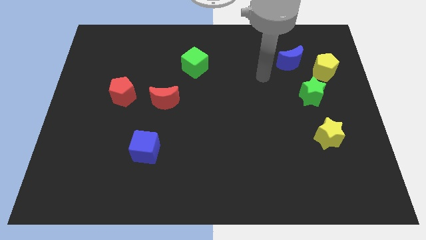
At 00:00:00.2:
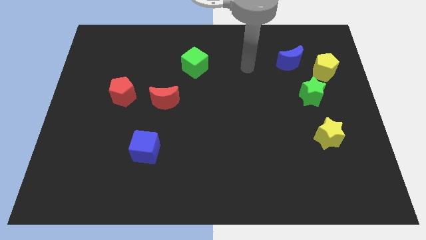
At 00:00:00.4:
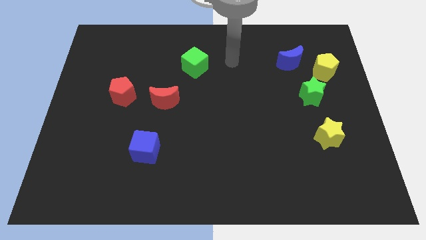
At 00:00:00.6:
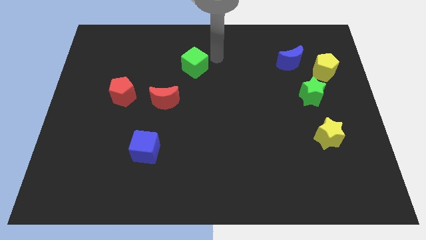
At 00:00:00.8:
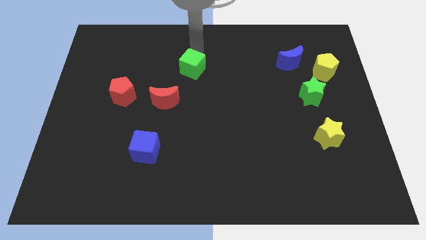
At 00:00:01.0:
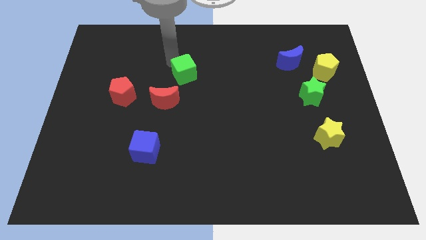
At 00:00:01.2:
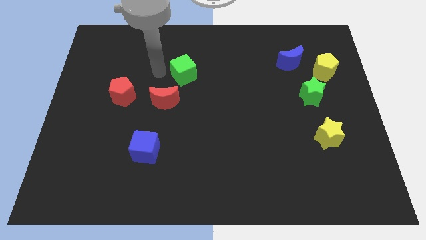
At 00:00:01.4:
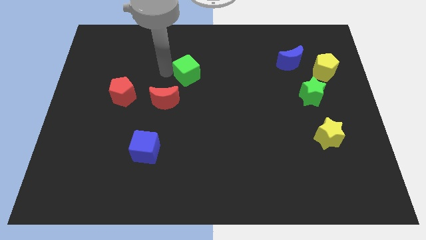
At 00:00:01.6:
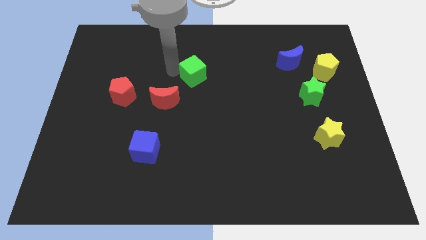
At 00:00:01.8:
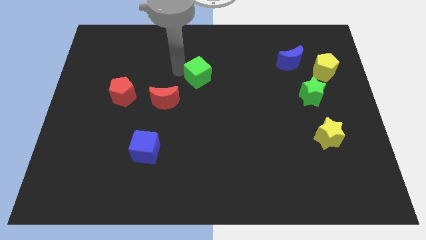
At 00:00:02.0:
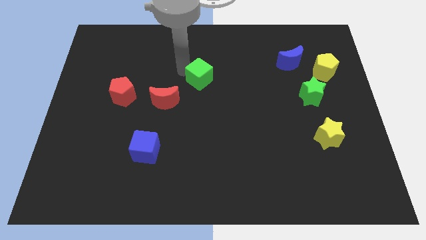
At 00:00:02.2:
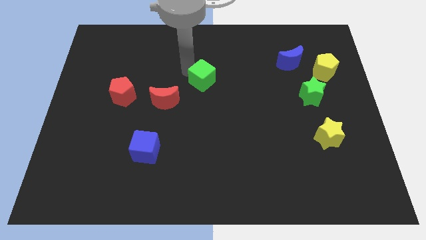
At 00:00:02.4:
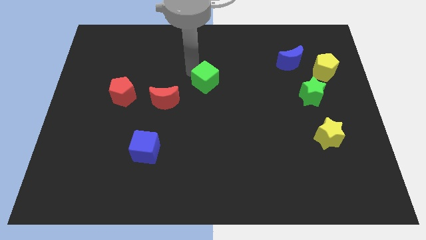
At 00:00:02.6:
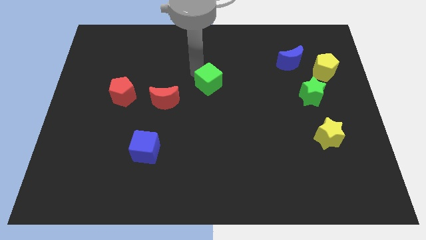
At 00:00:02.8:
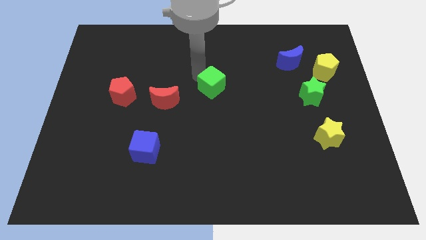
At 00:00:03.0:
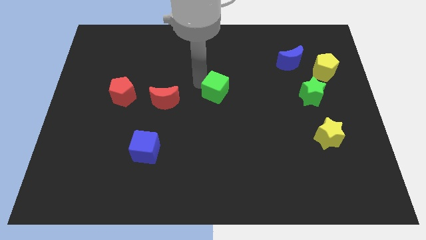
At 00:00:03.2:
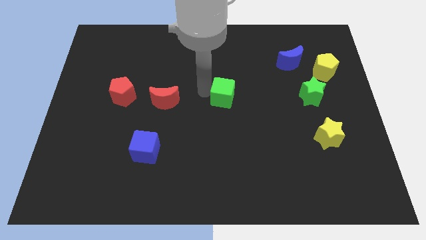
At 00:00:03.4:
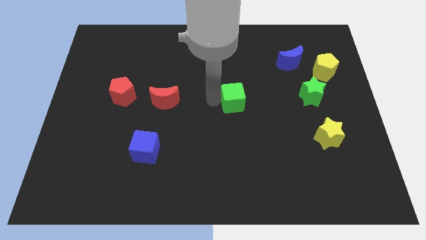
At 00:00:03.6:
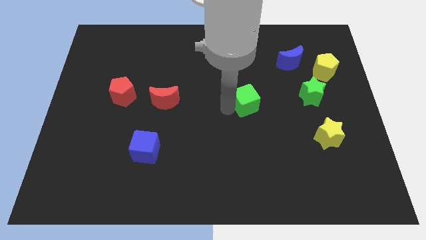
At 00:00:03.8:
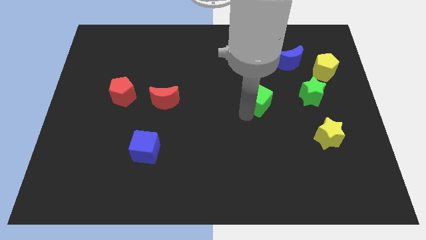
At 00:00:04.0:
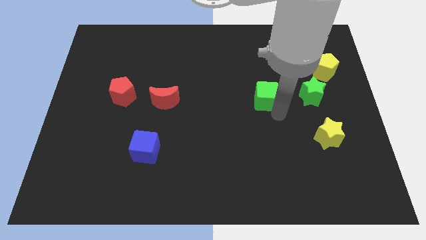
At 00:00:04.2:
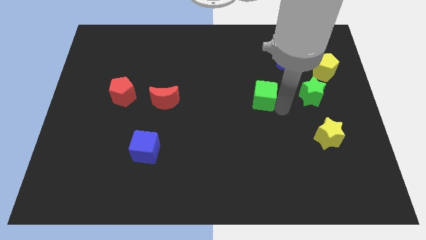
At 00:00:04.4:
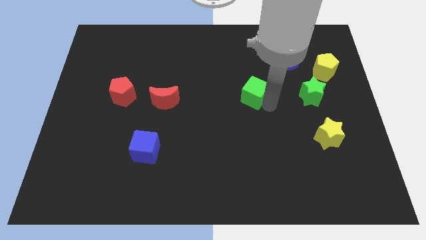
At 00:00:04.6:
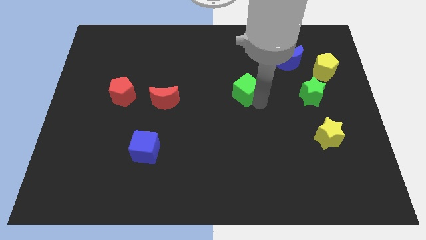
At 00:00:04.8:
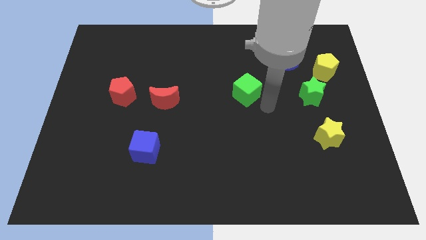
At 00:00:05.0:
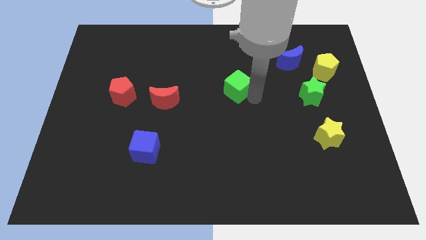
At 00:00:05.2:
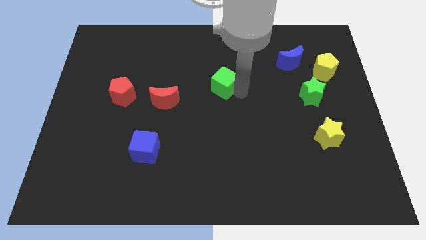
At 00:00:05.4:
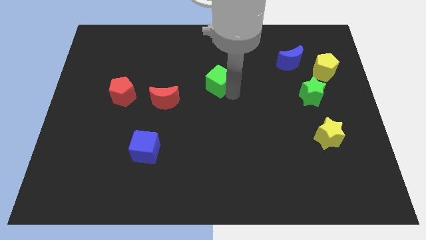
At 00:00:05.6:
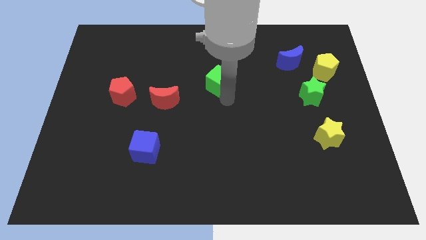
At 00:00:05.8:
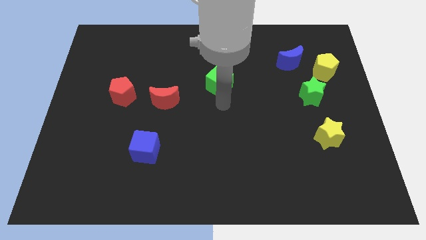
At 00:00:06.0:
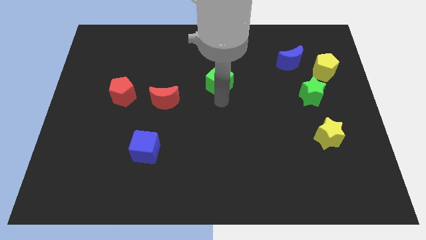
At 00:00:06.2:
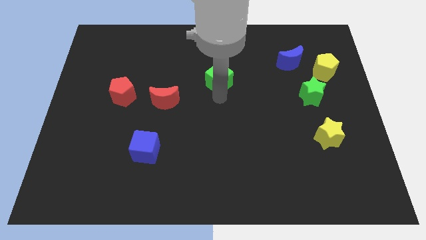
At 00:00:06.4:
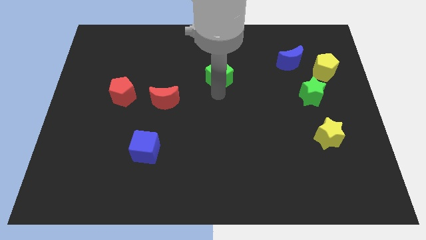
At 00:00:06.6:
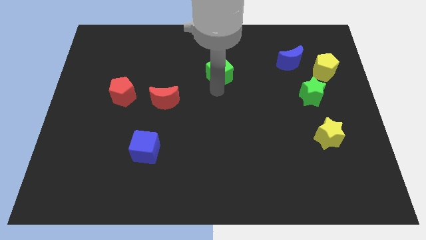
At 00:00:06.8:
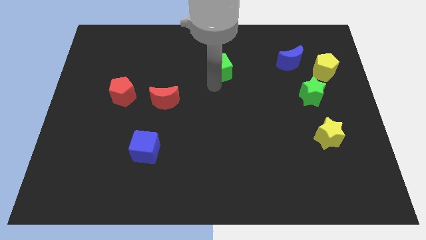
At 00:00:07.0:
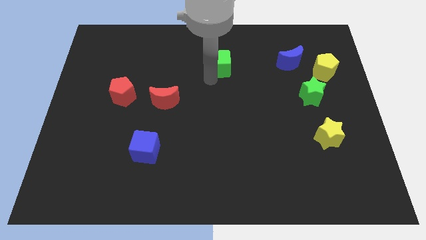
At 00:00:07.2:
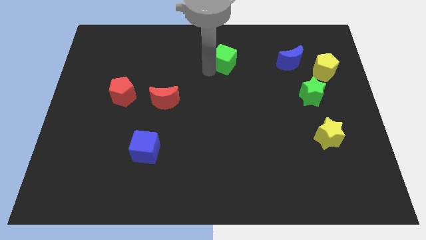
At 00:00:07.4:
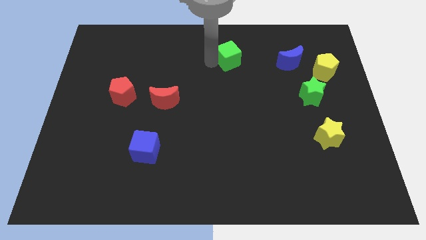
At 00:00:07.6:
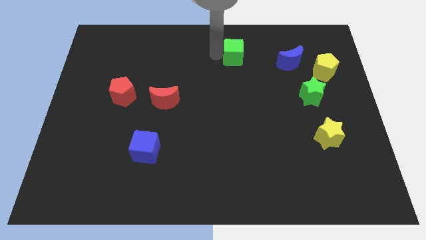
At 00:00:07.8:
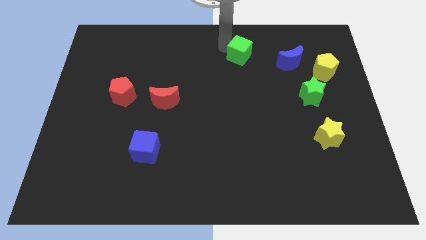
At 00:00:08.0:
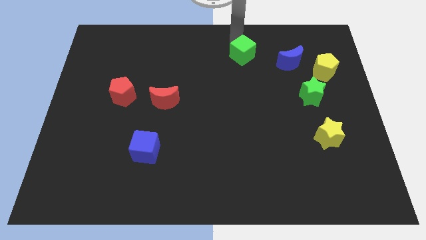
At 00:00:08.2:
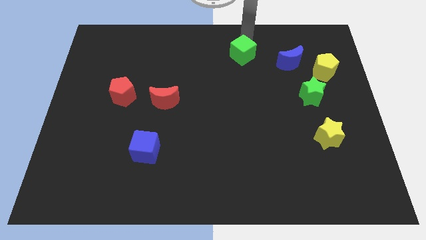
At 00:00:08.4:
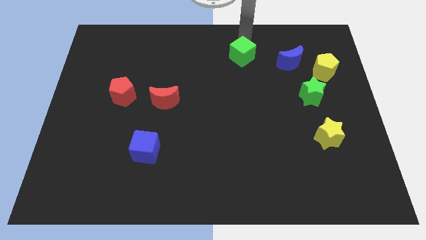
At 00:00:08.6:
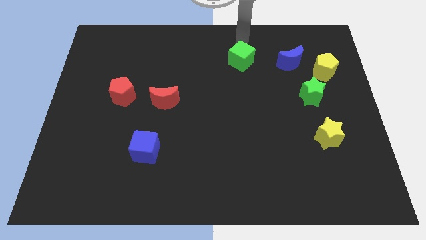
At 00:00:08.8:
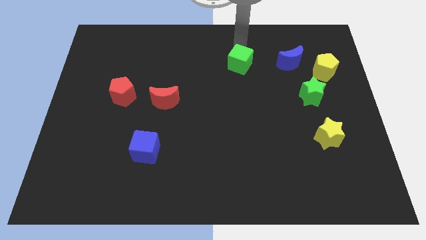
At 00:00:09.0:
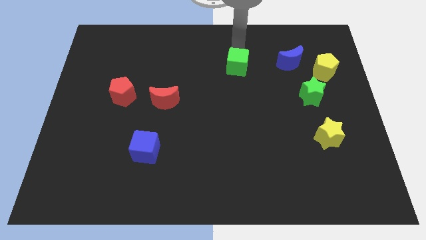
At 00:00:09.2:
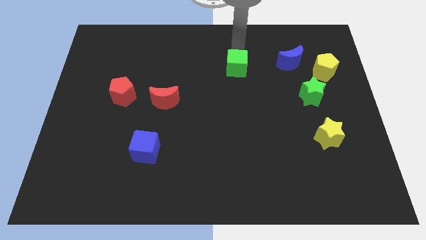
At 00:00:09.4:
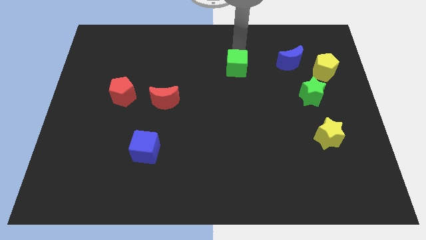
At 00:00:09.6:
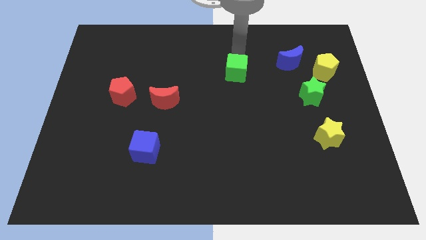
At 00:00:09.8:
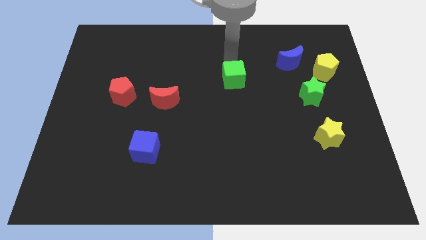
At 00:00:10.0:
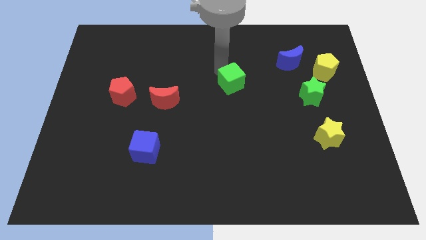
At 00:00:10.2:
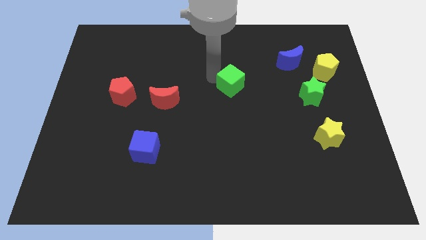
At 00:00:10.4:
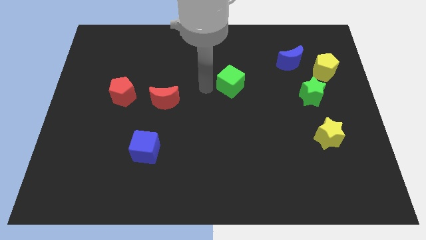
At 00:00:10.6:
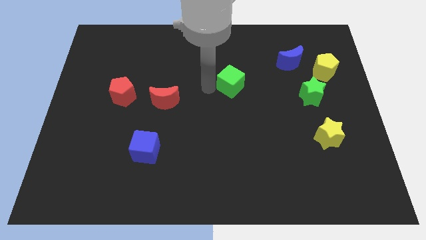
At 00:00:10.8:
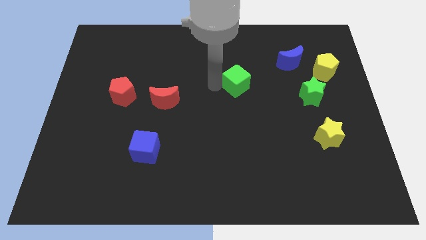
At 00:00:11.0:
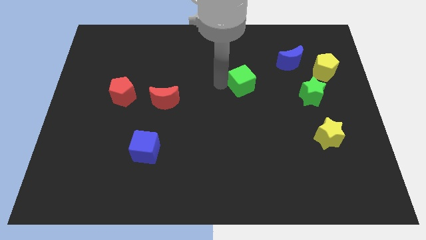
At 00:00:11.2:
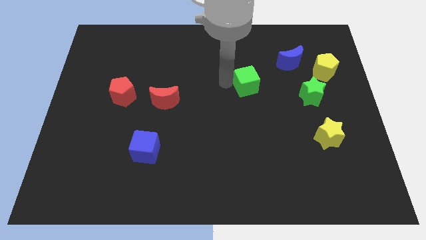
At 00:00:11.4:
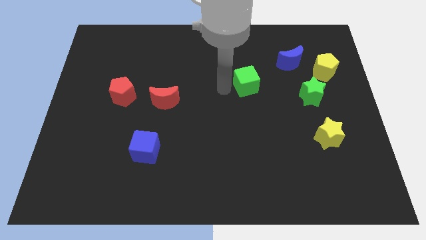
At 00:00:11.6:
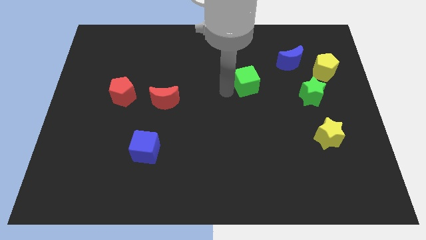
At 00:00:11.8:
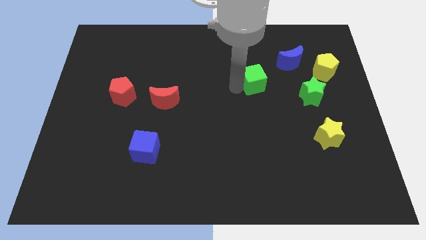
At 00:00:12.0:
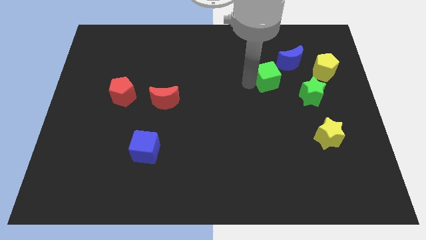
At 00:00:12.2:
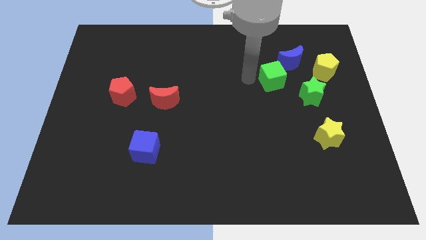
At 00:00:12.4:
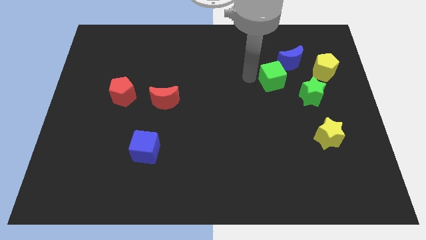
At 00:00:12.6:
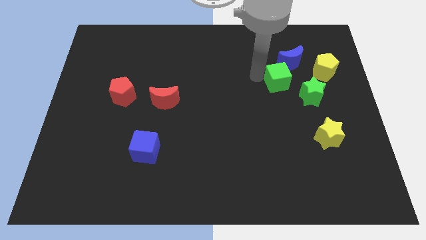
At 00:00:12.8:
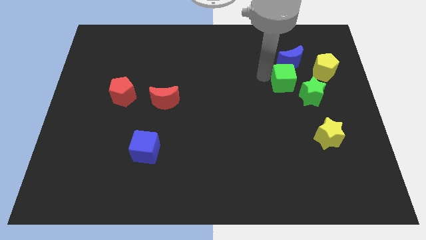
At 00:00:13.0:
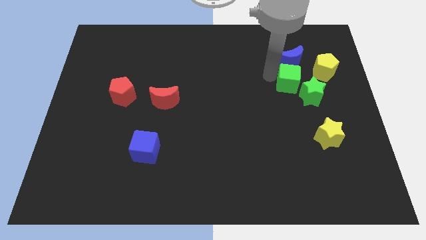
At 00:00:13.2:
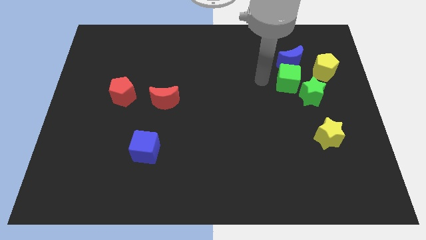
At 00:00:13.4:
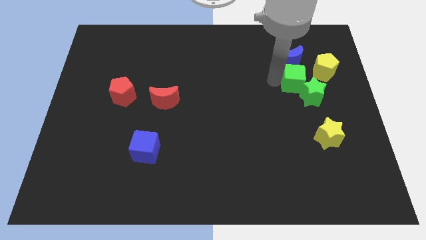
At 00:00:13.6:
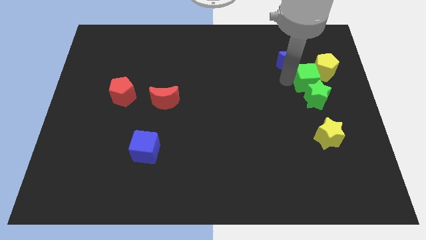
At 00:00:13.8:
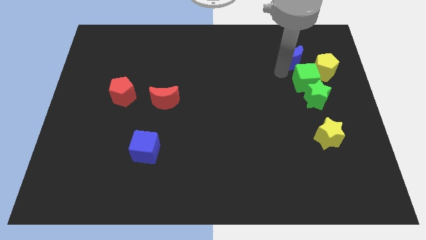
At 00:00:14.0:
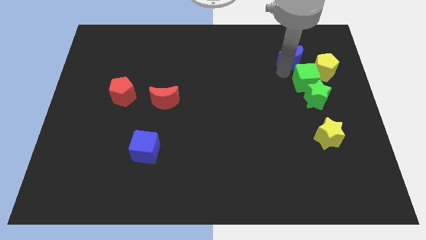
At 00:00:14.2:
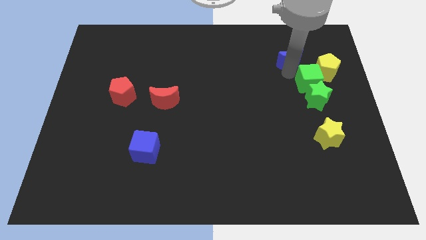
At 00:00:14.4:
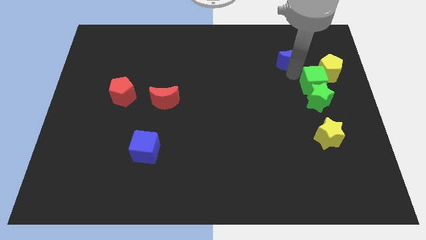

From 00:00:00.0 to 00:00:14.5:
slide the green cube to the bottom of the yellow pentagon
